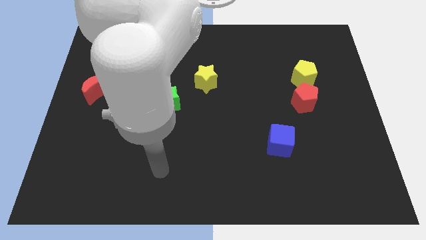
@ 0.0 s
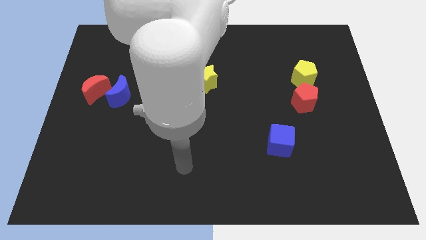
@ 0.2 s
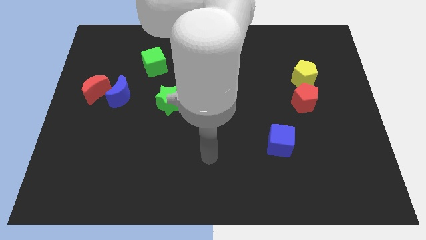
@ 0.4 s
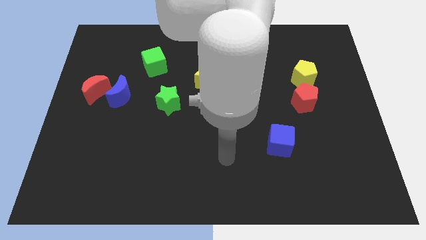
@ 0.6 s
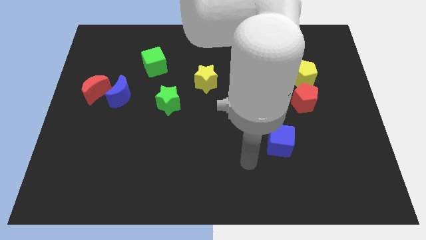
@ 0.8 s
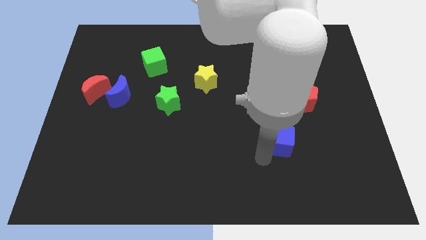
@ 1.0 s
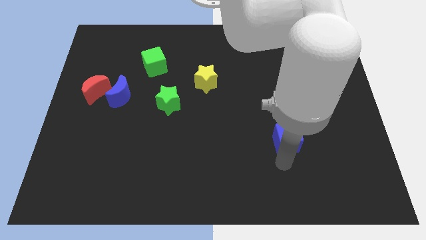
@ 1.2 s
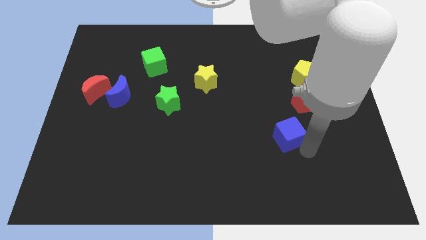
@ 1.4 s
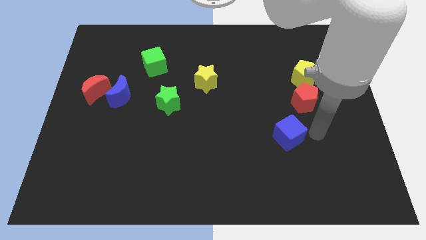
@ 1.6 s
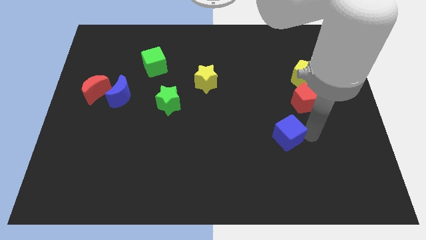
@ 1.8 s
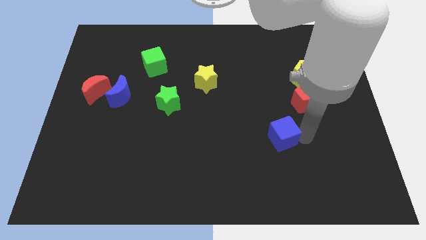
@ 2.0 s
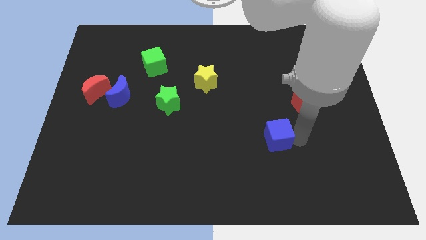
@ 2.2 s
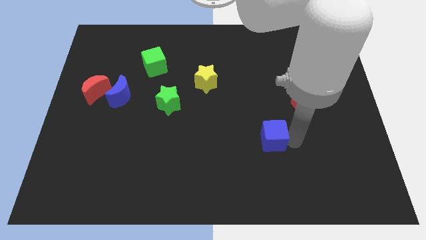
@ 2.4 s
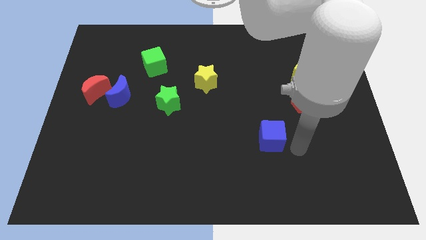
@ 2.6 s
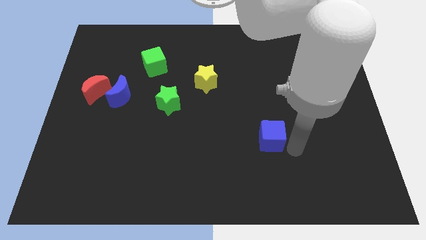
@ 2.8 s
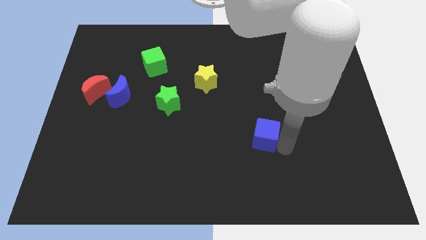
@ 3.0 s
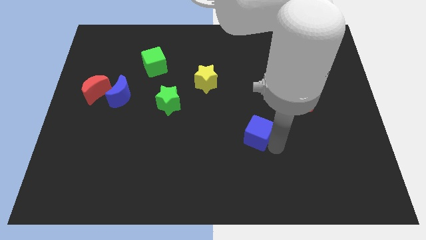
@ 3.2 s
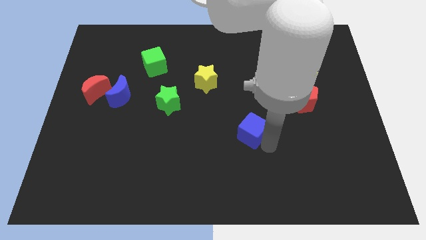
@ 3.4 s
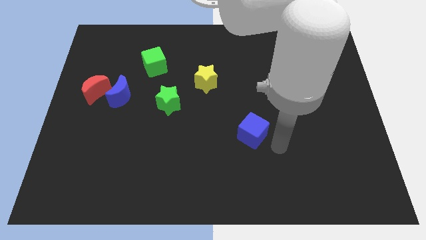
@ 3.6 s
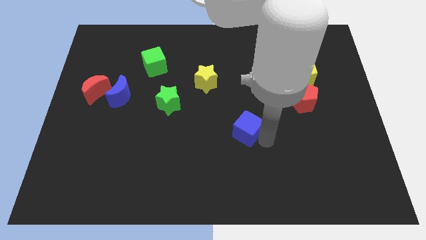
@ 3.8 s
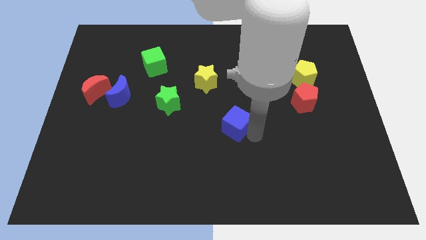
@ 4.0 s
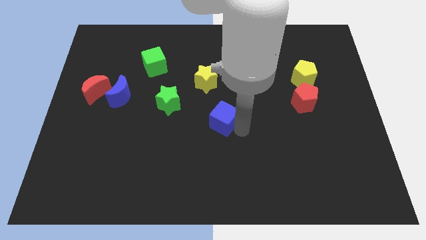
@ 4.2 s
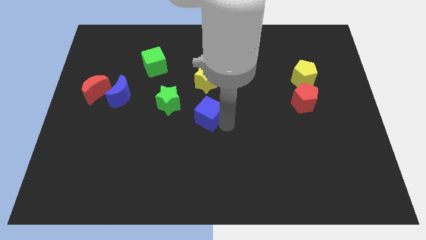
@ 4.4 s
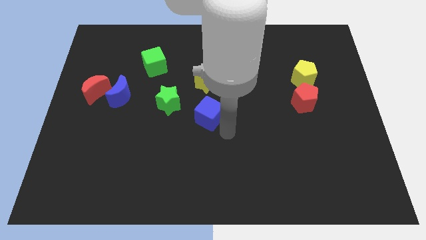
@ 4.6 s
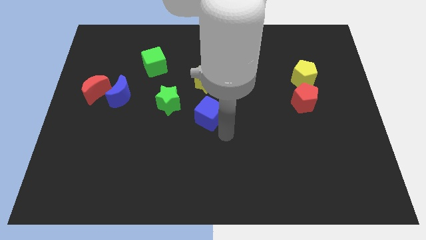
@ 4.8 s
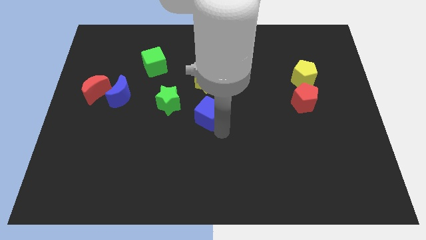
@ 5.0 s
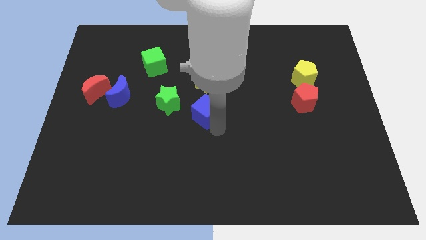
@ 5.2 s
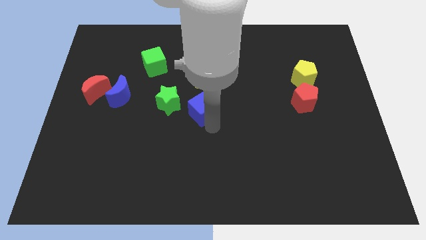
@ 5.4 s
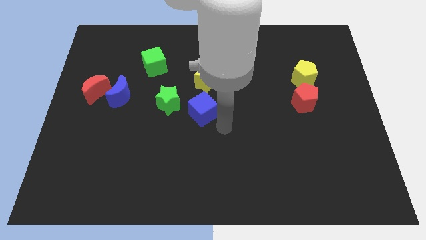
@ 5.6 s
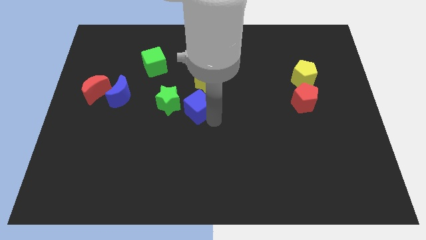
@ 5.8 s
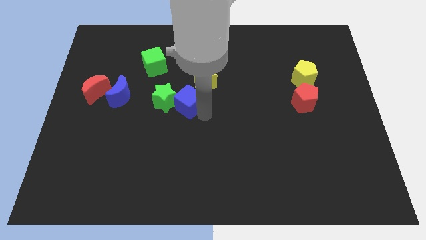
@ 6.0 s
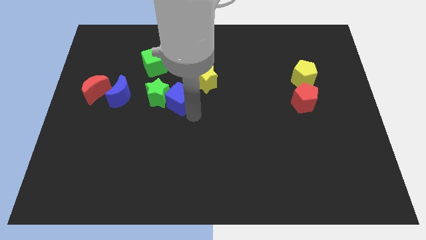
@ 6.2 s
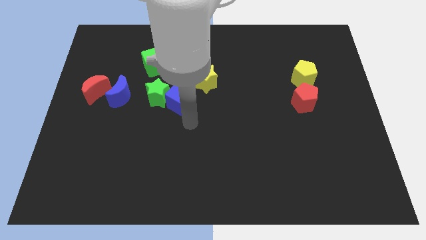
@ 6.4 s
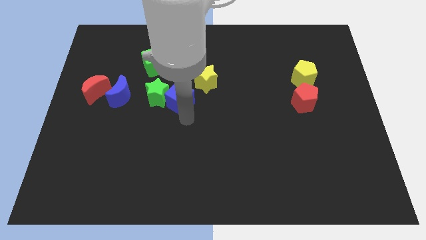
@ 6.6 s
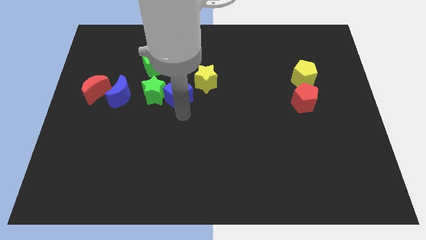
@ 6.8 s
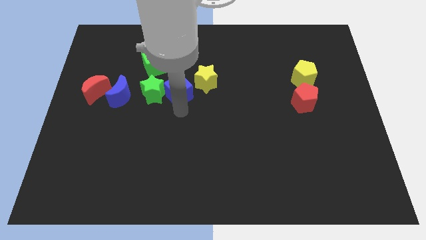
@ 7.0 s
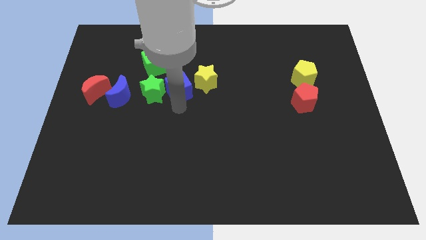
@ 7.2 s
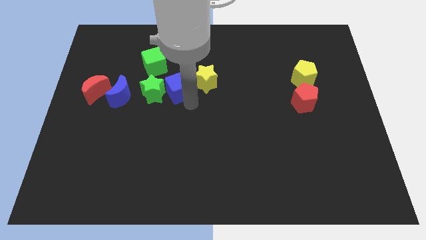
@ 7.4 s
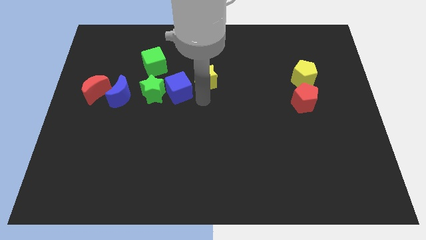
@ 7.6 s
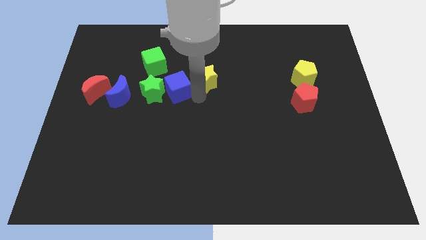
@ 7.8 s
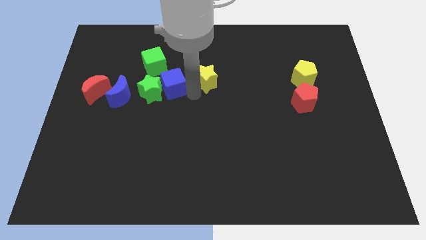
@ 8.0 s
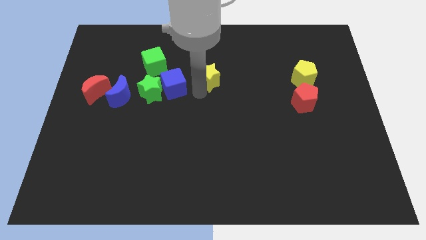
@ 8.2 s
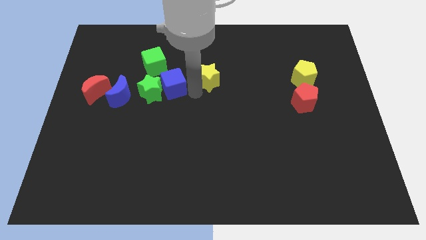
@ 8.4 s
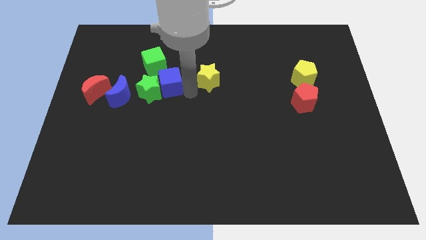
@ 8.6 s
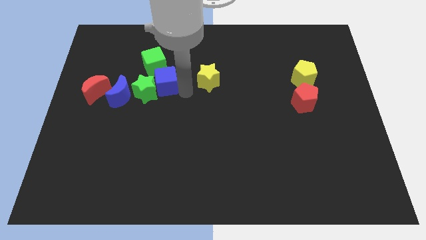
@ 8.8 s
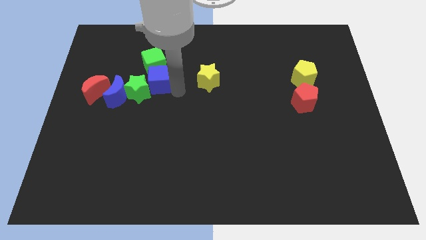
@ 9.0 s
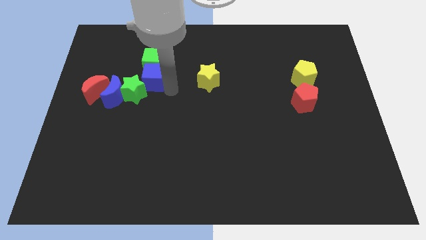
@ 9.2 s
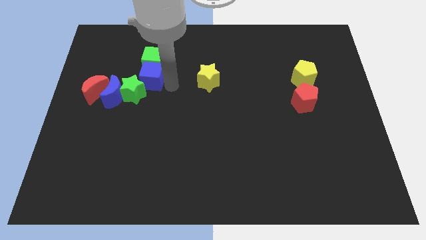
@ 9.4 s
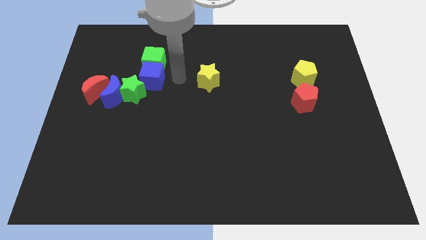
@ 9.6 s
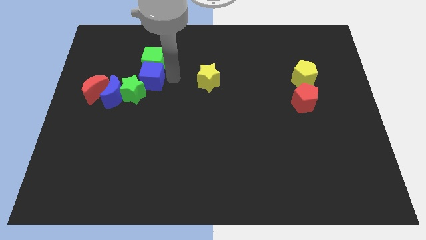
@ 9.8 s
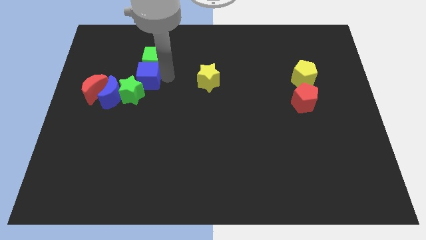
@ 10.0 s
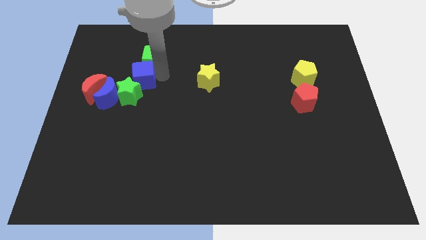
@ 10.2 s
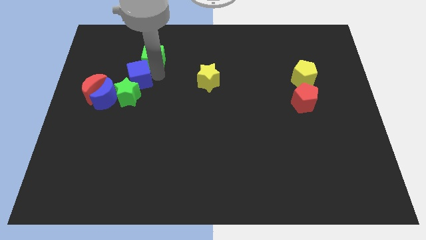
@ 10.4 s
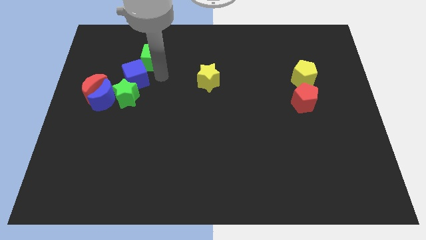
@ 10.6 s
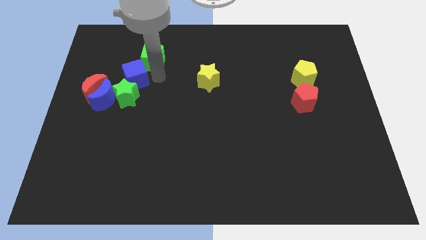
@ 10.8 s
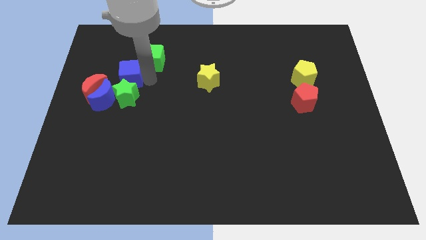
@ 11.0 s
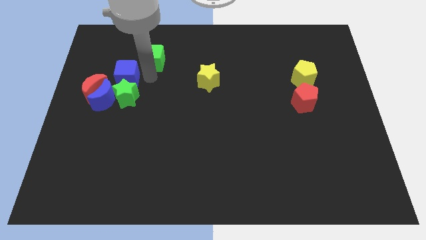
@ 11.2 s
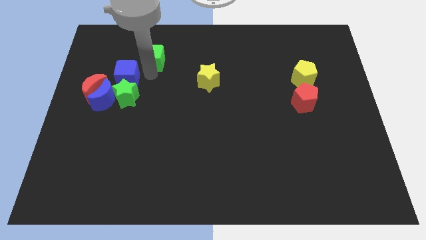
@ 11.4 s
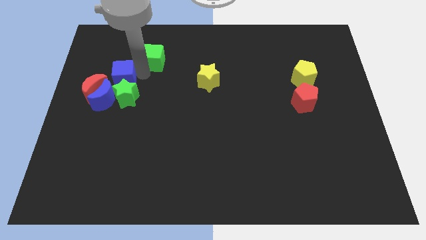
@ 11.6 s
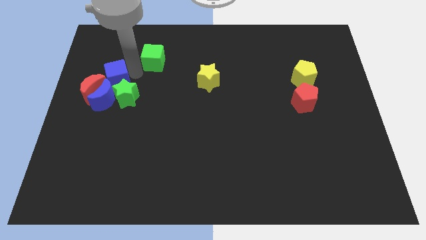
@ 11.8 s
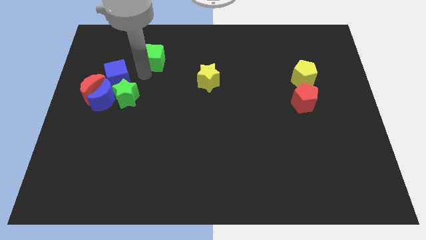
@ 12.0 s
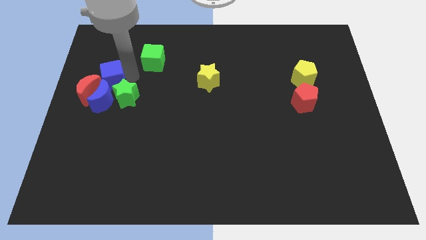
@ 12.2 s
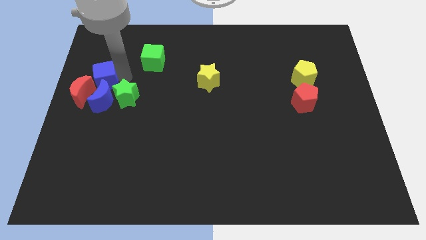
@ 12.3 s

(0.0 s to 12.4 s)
slide the blue cube to the top left side of the blue moon
